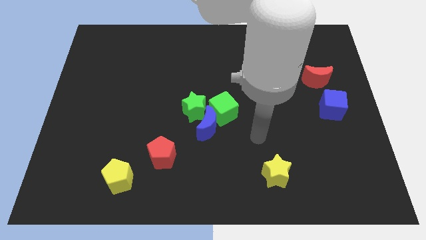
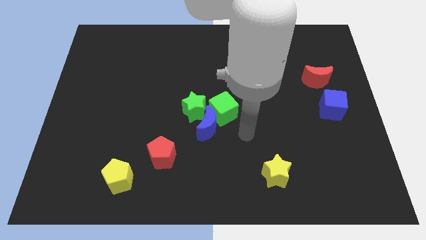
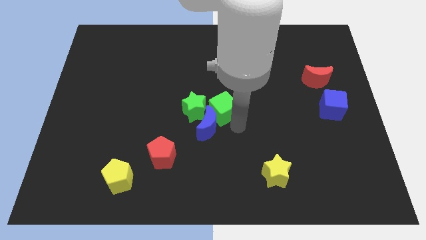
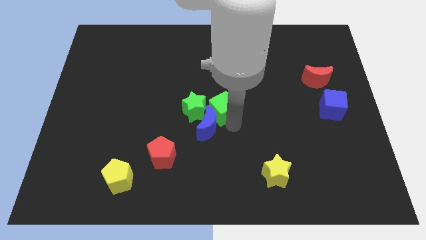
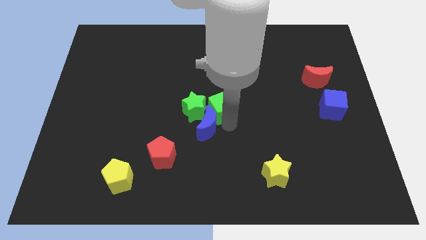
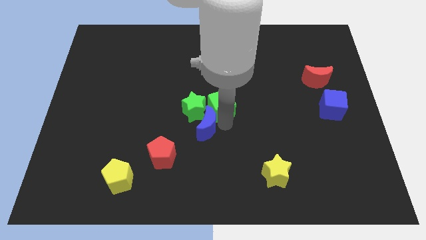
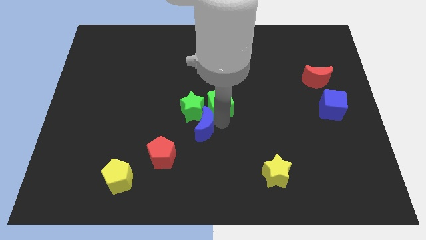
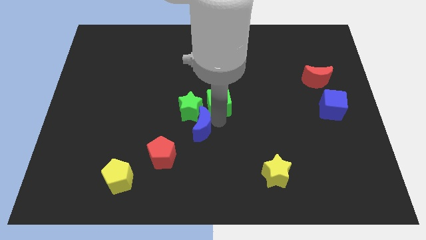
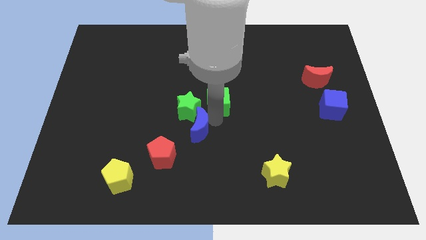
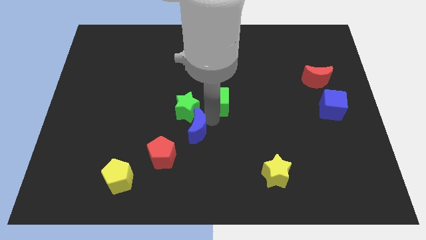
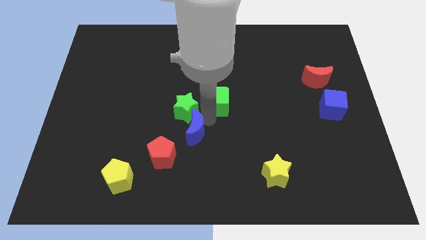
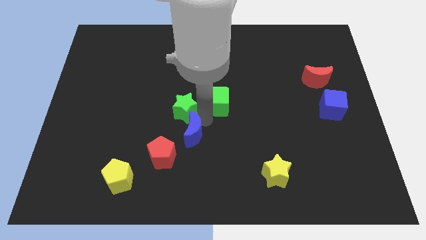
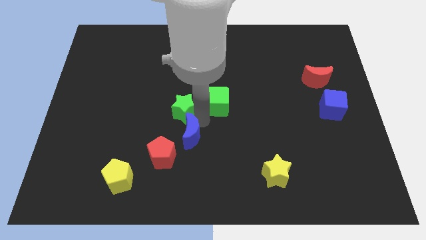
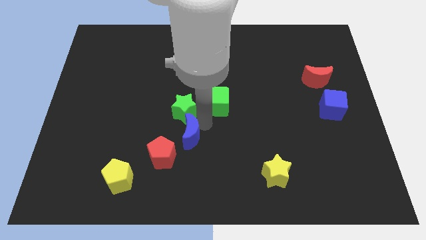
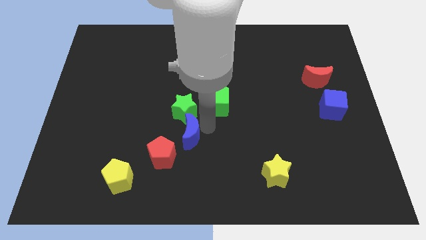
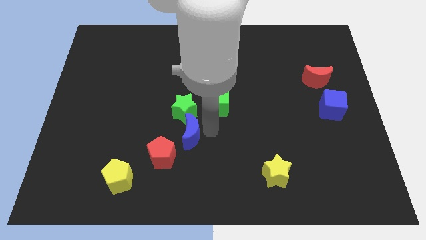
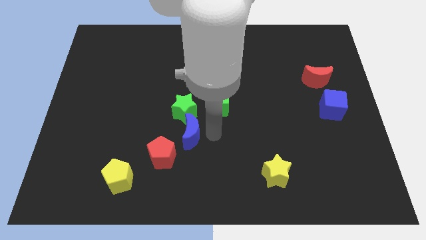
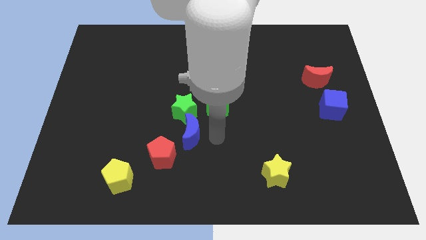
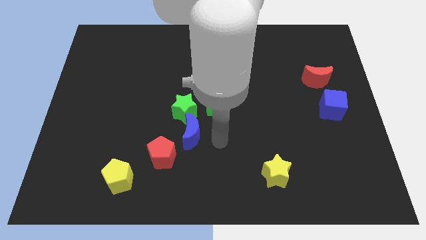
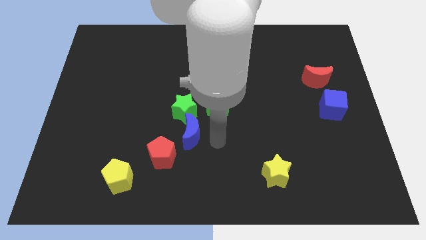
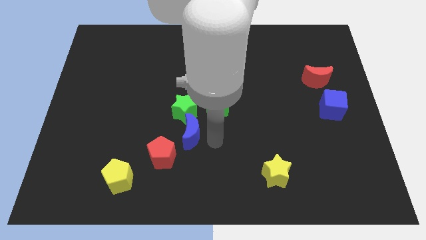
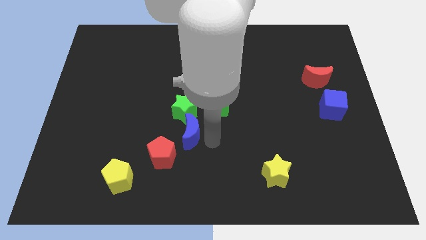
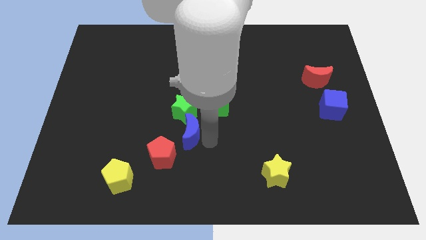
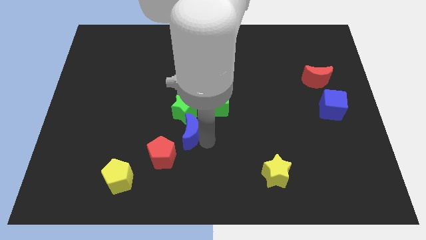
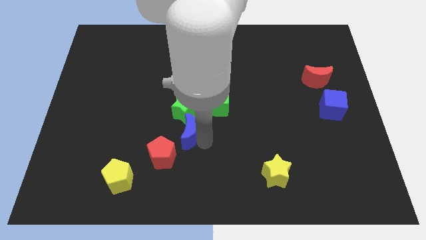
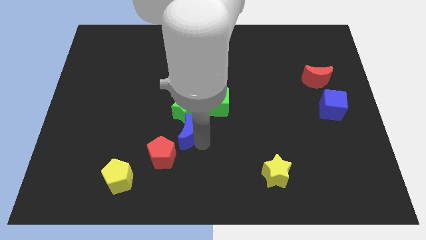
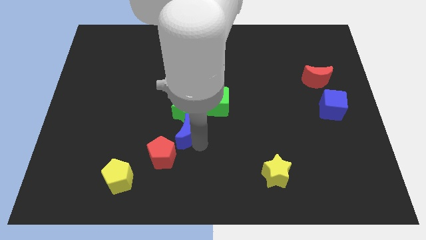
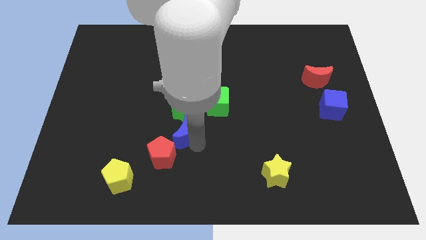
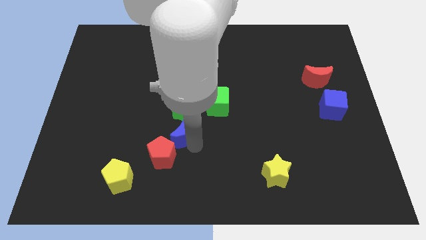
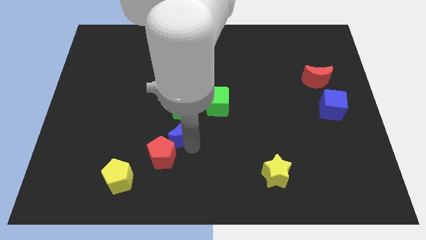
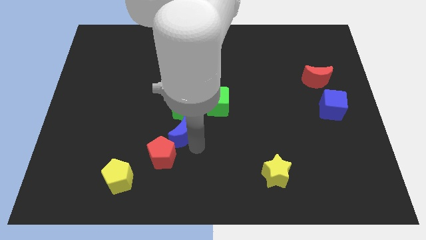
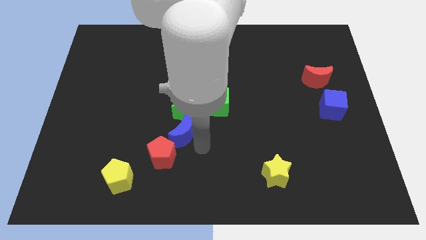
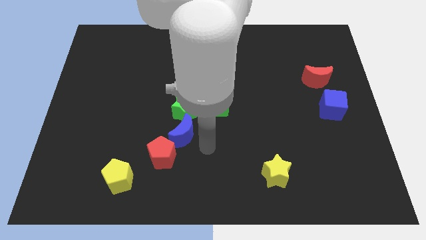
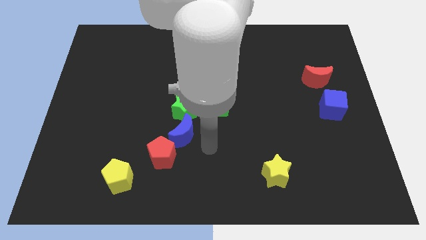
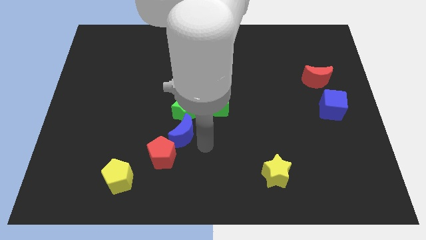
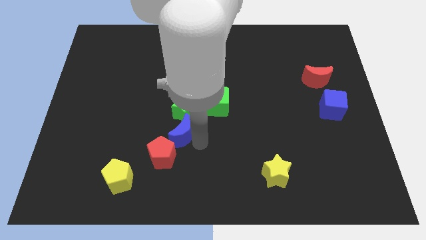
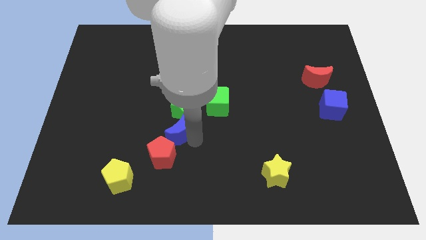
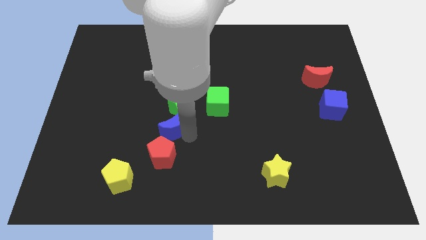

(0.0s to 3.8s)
move the blue moon a little left

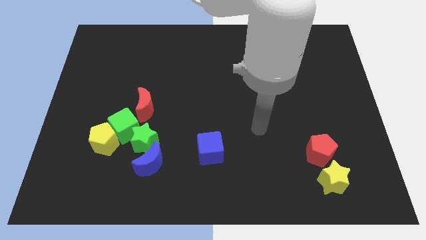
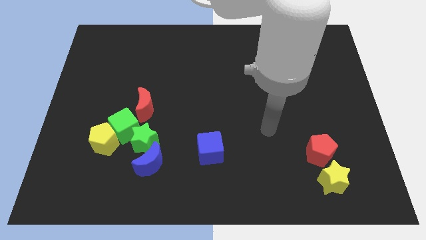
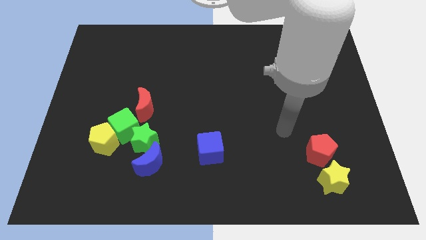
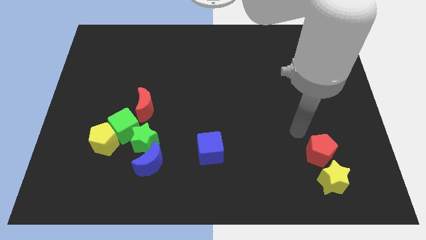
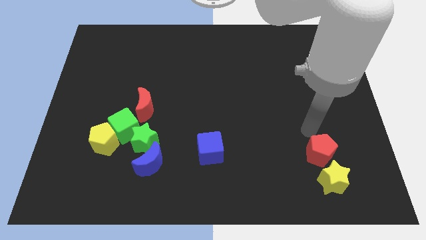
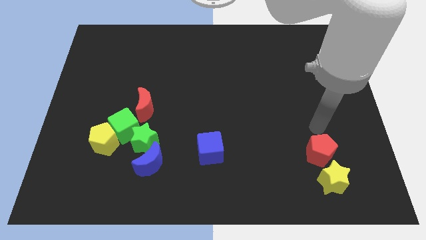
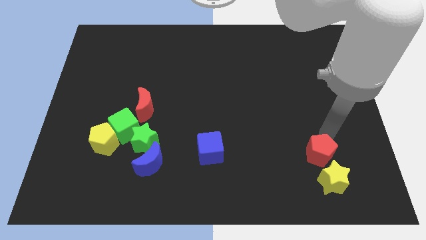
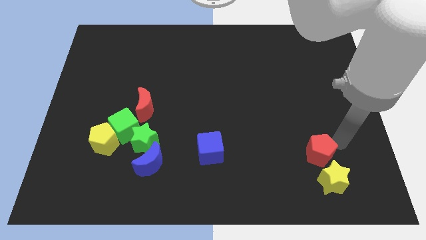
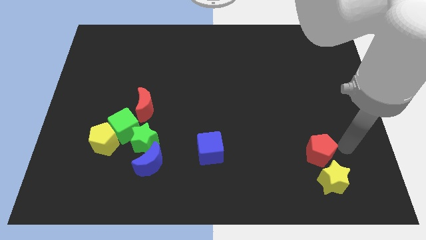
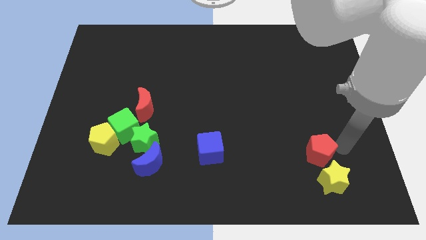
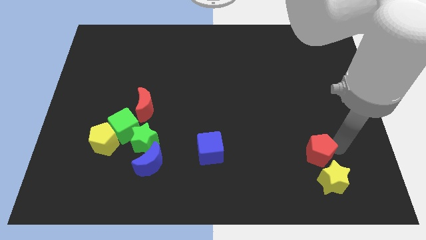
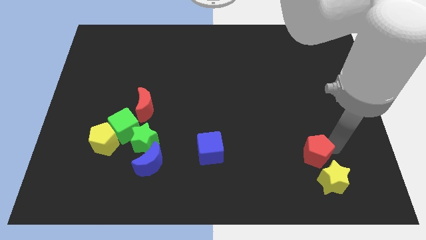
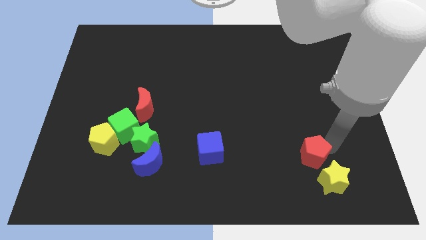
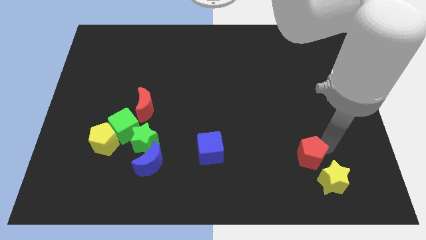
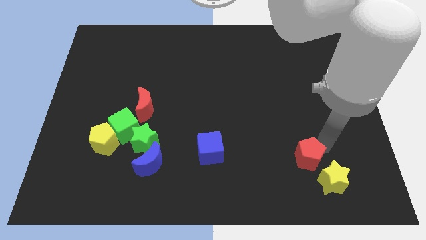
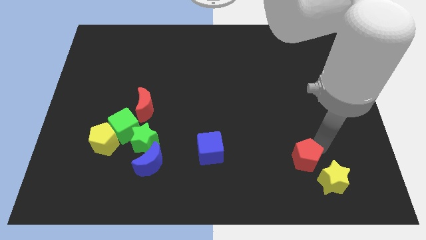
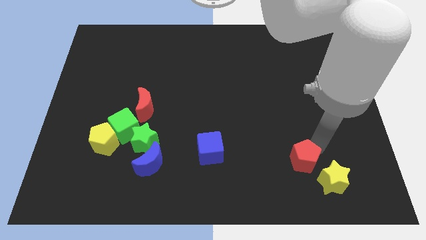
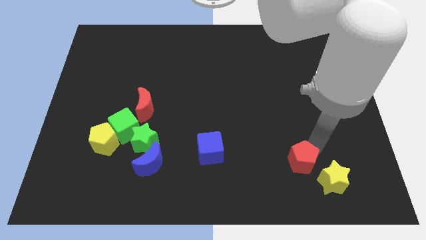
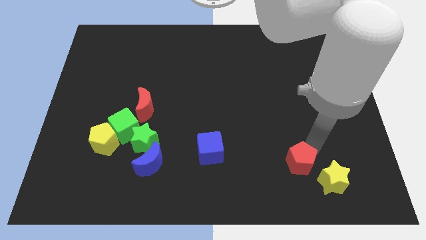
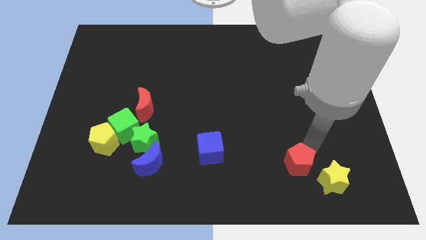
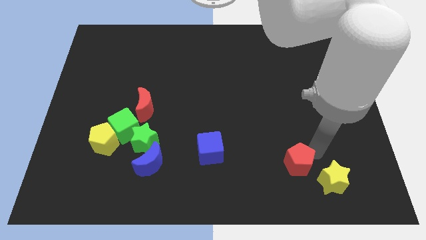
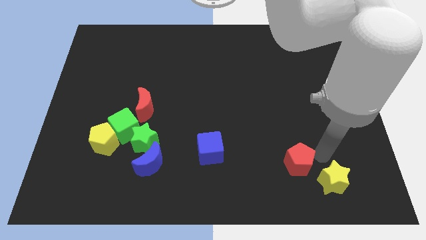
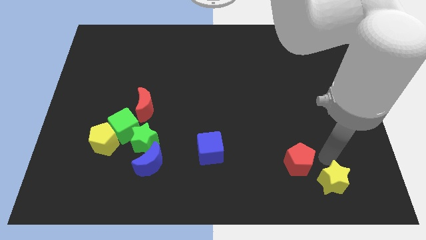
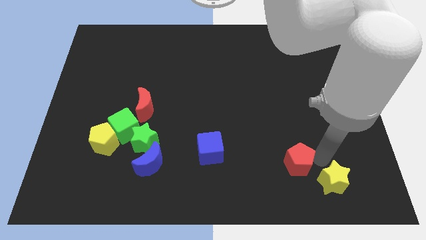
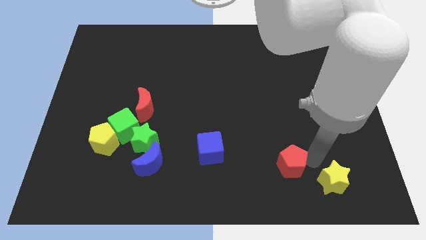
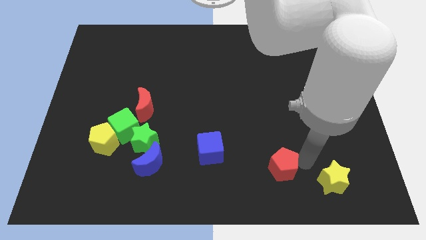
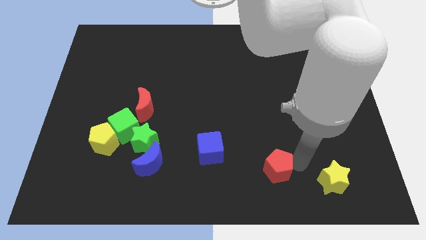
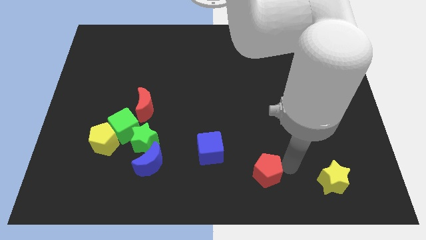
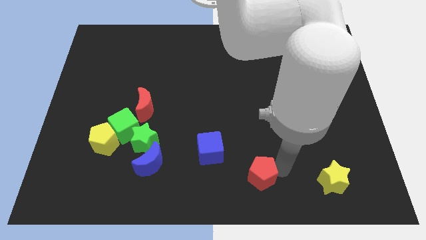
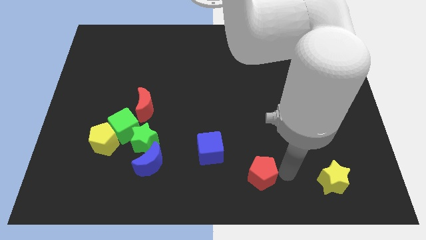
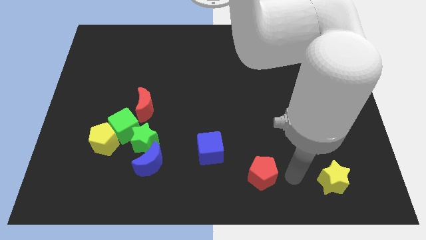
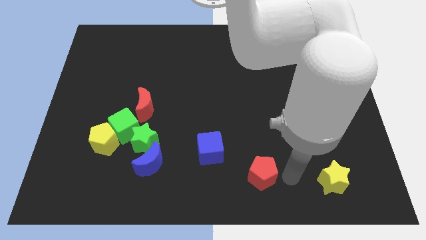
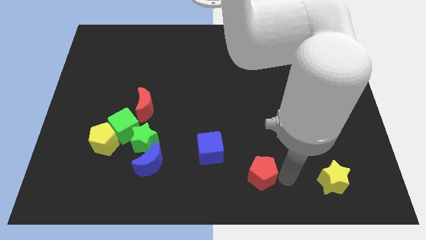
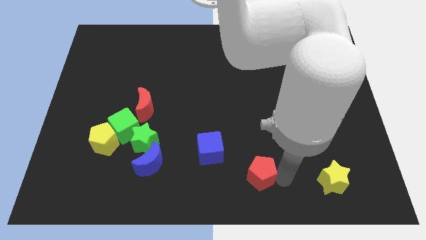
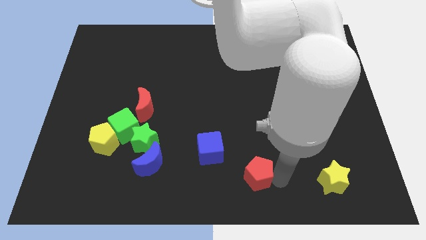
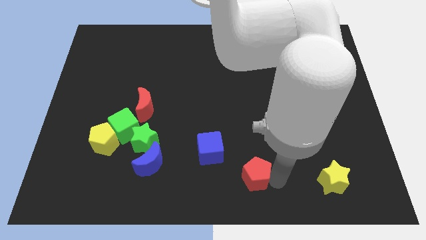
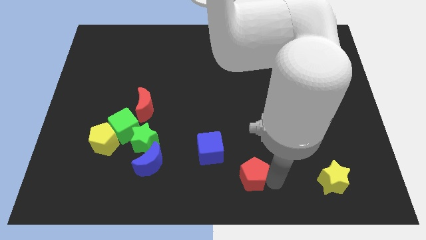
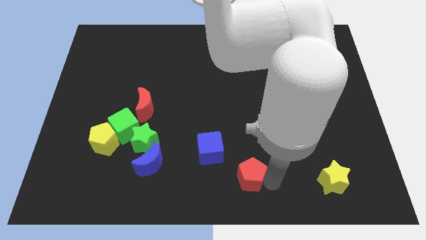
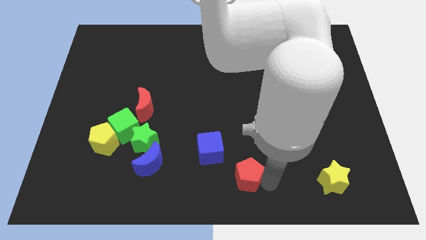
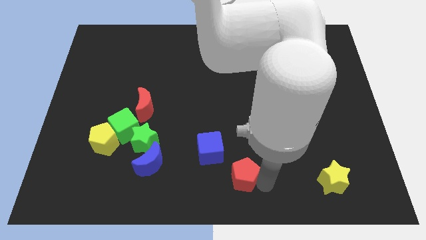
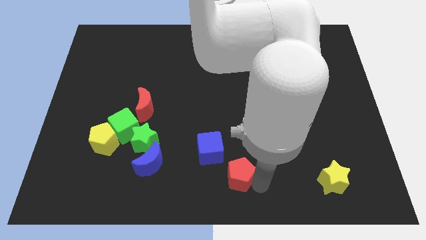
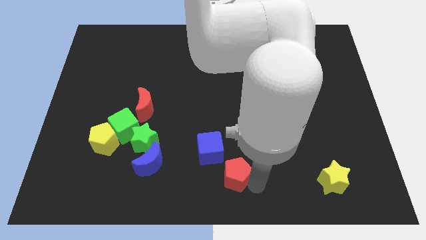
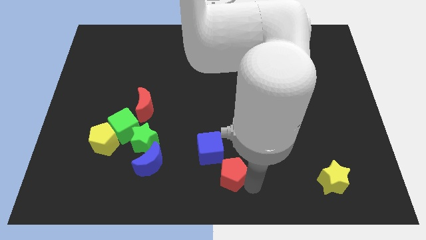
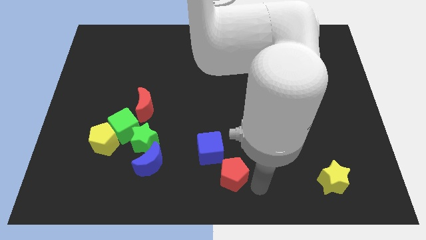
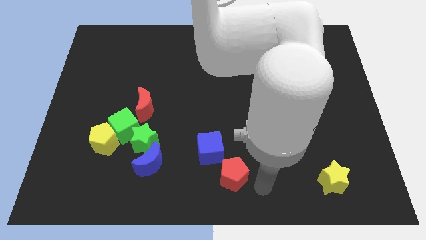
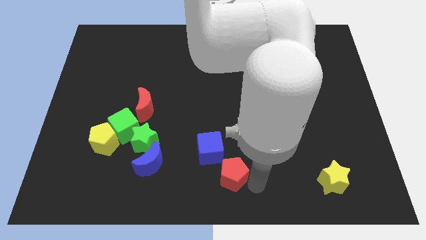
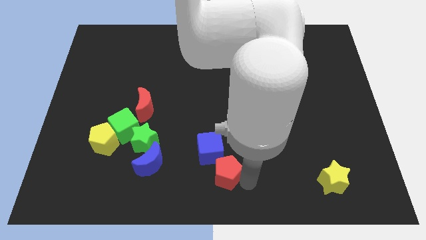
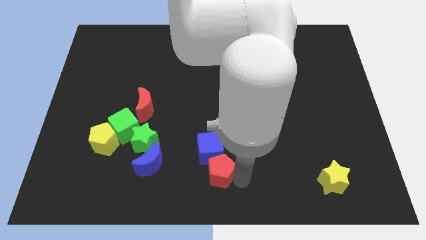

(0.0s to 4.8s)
push the red pentagon to the left
